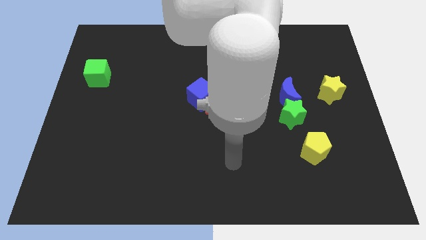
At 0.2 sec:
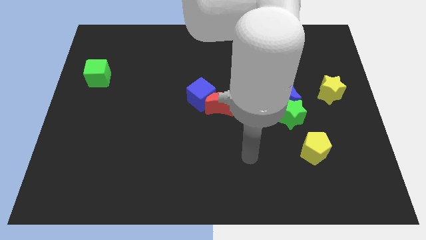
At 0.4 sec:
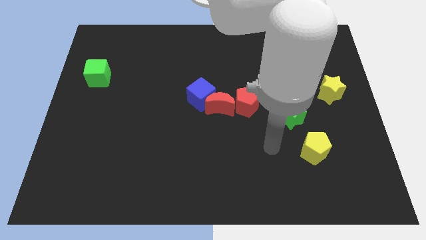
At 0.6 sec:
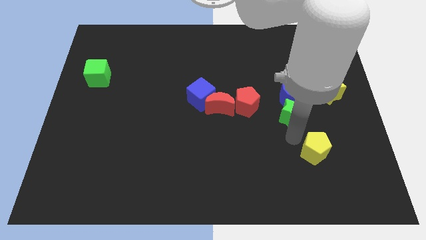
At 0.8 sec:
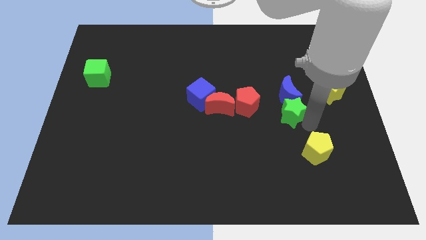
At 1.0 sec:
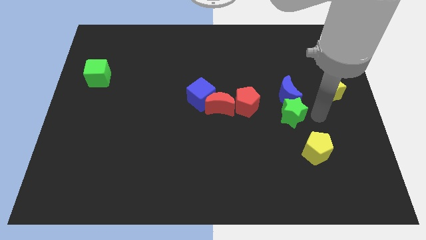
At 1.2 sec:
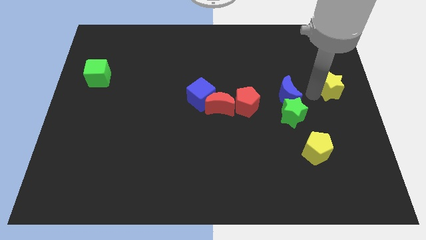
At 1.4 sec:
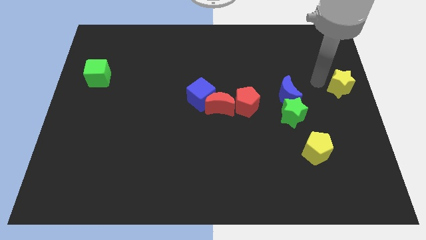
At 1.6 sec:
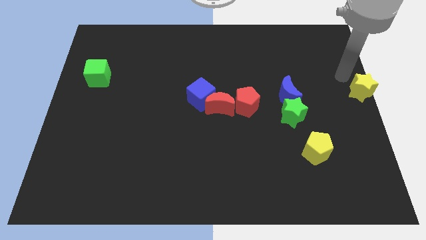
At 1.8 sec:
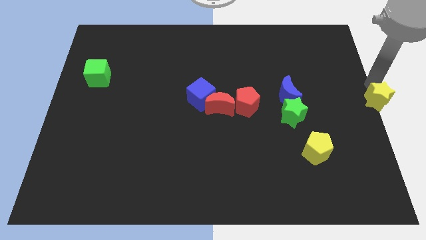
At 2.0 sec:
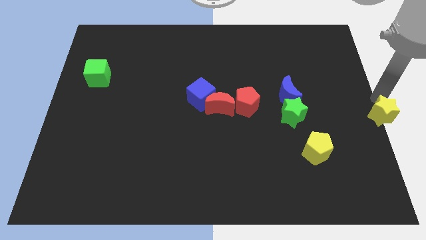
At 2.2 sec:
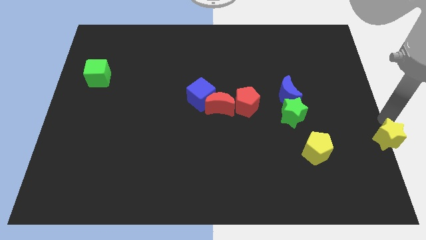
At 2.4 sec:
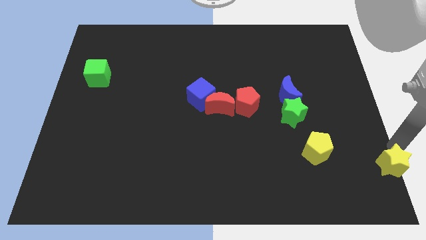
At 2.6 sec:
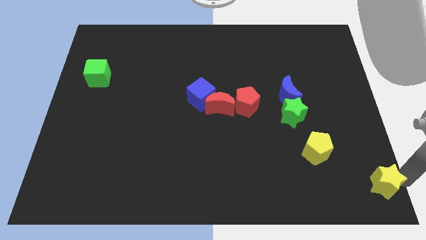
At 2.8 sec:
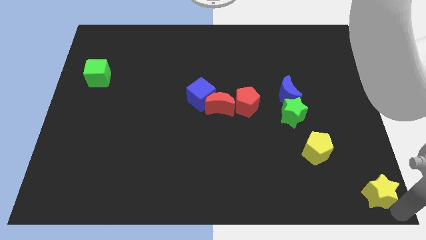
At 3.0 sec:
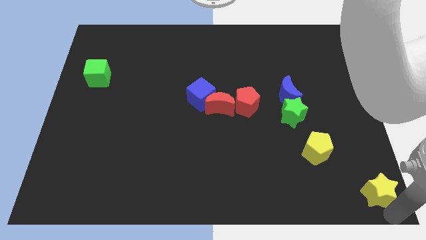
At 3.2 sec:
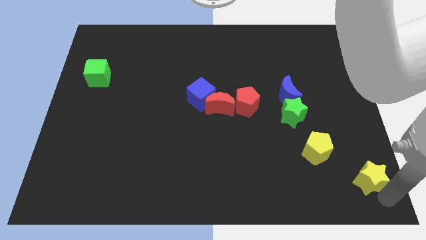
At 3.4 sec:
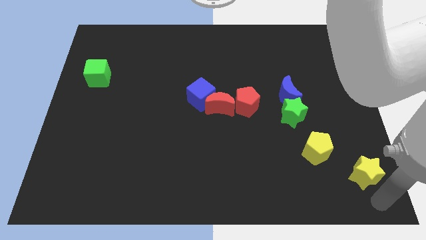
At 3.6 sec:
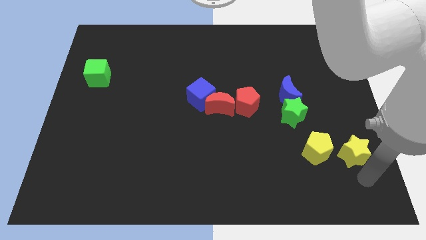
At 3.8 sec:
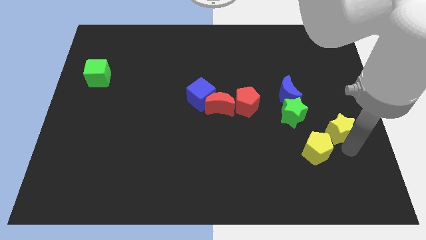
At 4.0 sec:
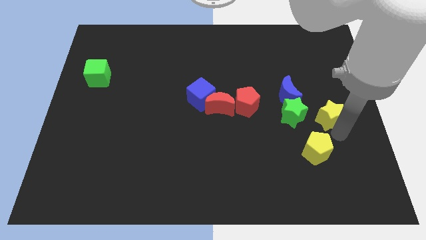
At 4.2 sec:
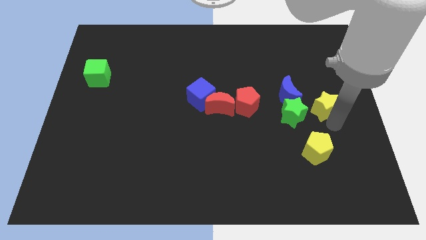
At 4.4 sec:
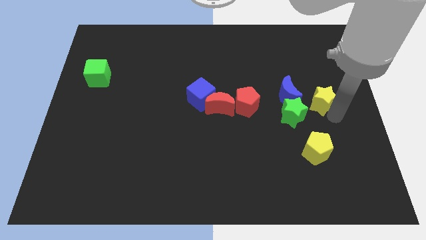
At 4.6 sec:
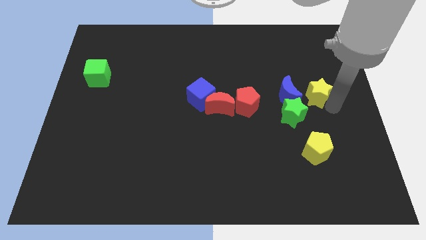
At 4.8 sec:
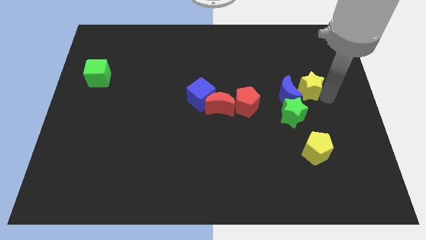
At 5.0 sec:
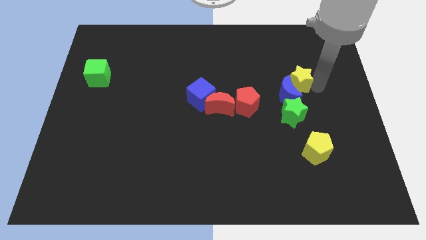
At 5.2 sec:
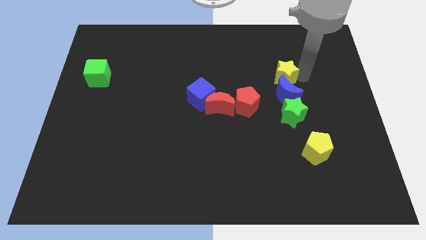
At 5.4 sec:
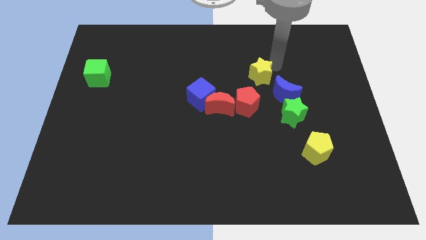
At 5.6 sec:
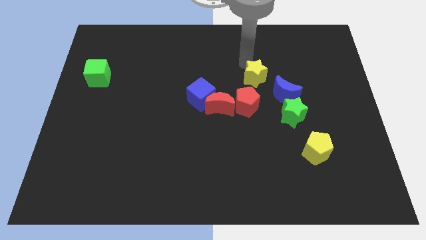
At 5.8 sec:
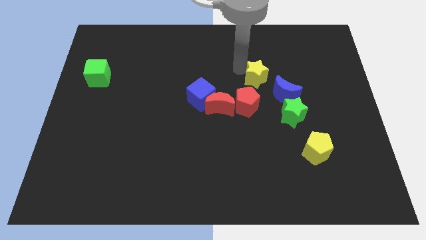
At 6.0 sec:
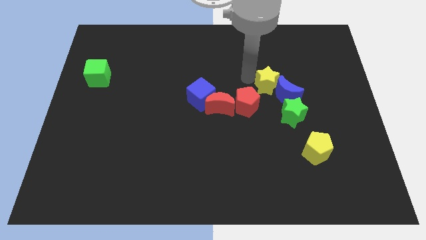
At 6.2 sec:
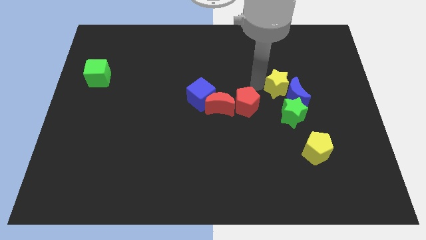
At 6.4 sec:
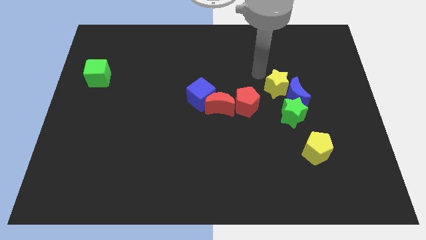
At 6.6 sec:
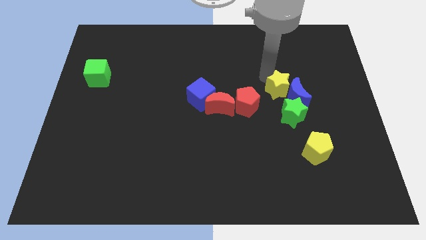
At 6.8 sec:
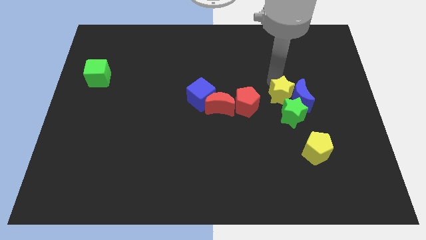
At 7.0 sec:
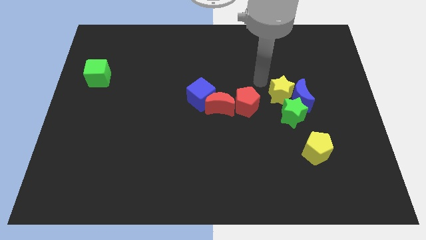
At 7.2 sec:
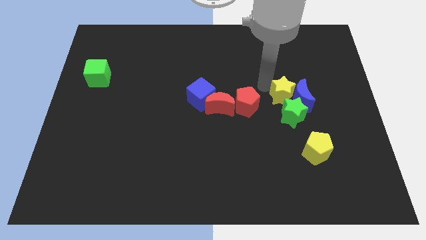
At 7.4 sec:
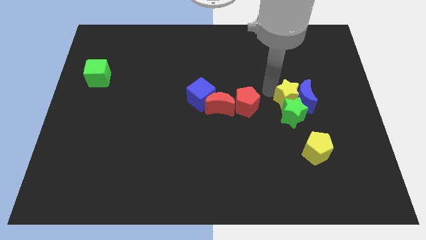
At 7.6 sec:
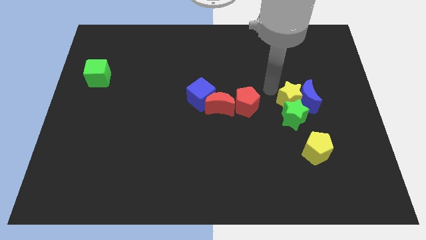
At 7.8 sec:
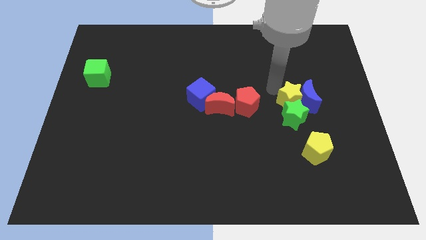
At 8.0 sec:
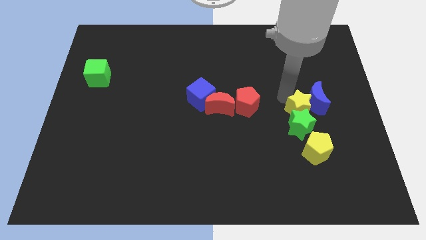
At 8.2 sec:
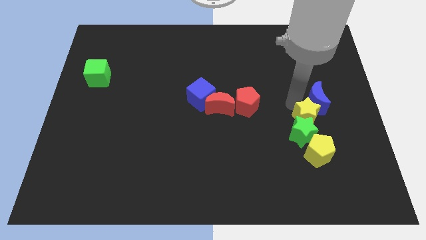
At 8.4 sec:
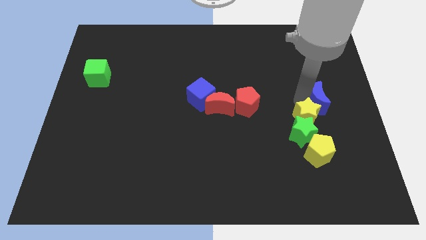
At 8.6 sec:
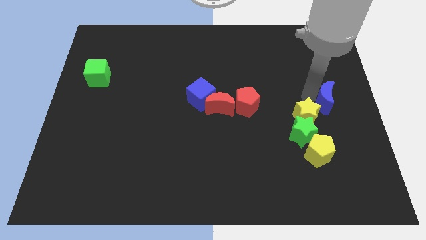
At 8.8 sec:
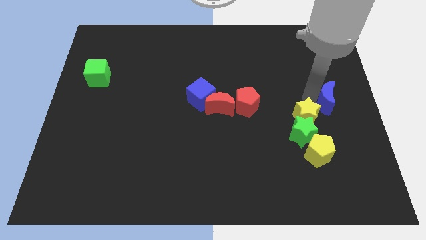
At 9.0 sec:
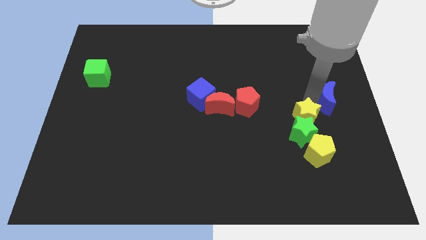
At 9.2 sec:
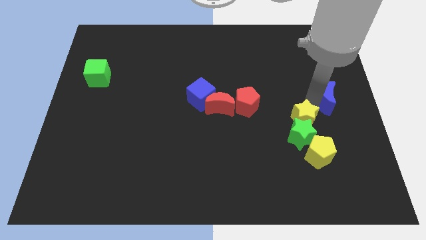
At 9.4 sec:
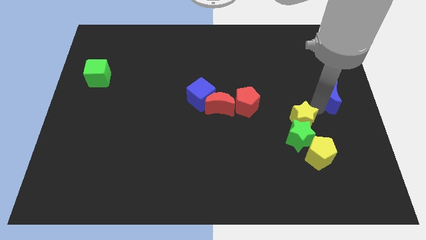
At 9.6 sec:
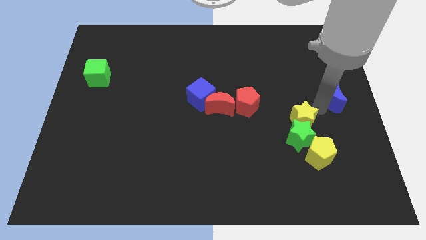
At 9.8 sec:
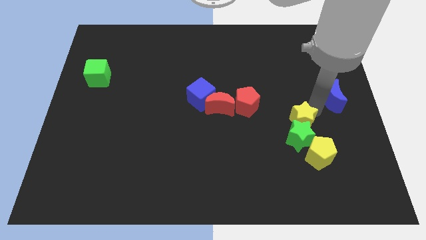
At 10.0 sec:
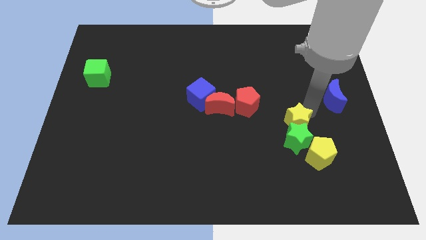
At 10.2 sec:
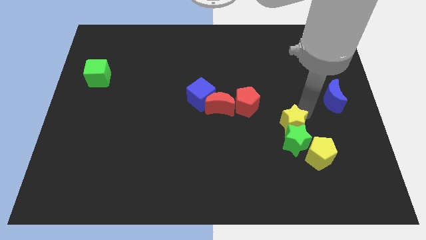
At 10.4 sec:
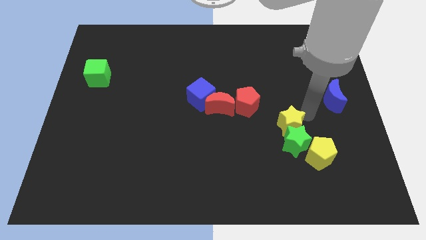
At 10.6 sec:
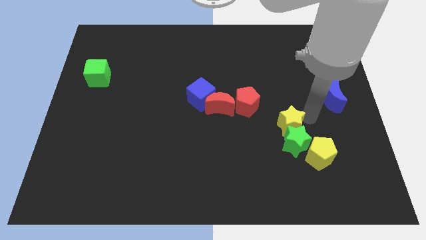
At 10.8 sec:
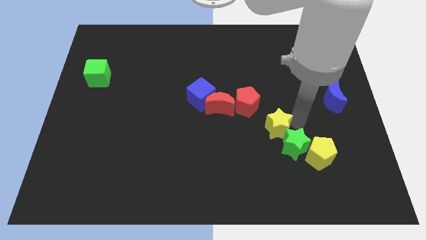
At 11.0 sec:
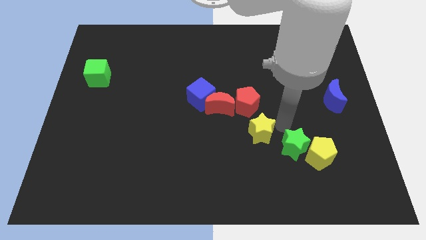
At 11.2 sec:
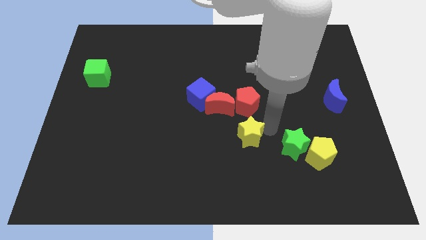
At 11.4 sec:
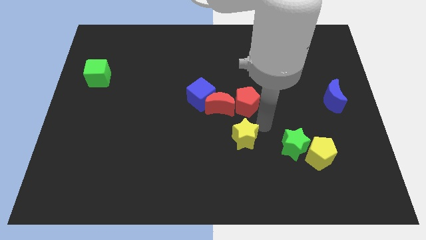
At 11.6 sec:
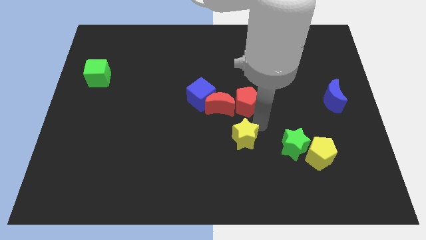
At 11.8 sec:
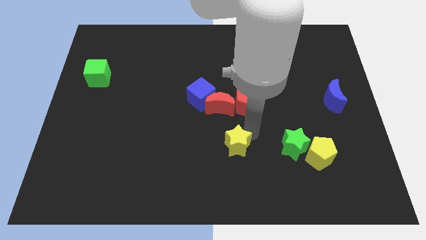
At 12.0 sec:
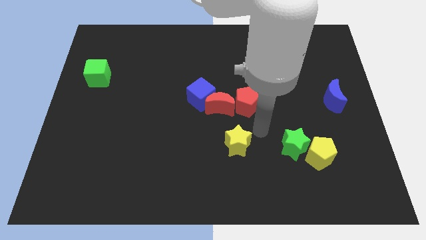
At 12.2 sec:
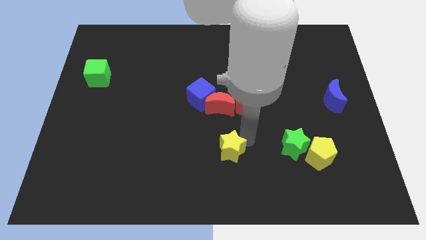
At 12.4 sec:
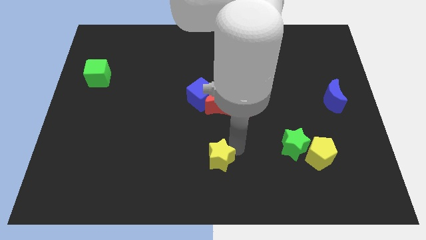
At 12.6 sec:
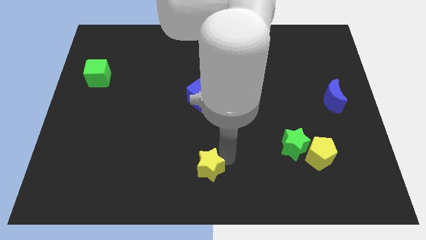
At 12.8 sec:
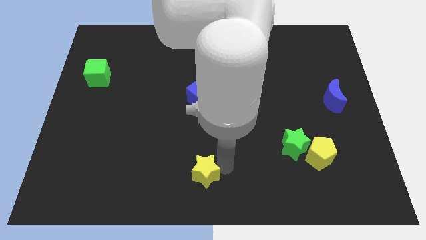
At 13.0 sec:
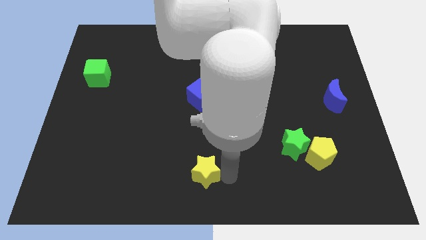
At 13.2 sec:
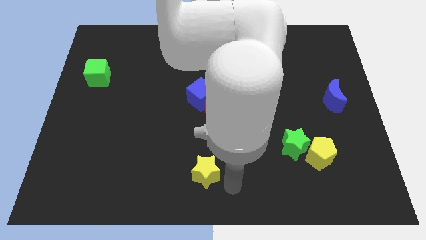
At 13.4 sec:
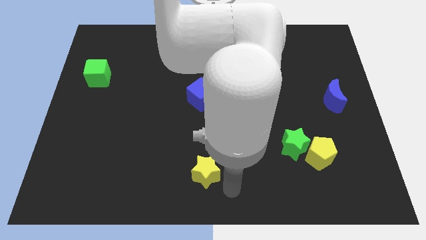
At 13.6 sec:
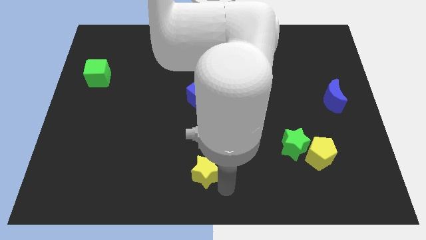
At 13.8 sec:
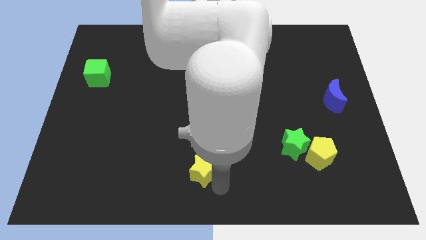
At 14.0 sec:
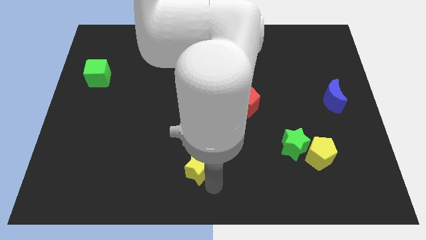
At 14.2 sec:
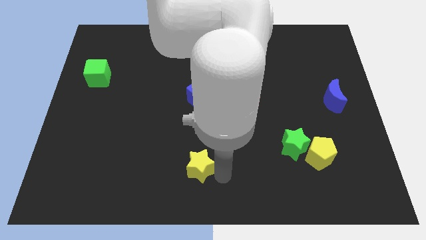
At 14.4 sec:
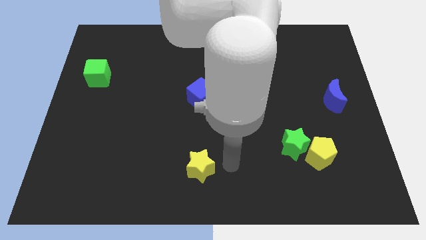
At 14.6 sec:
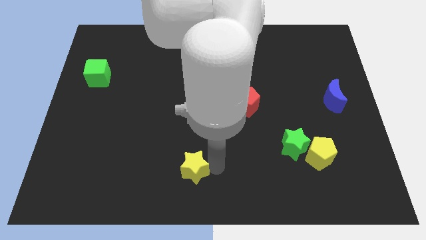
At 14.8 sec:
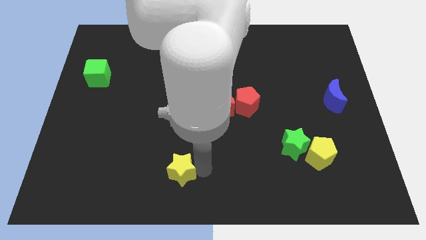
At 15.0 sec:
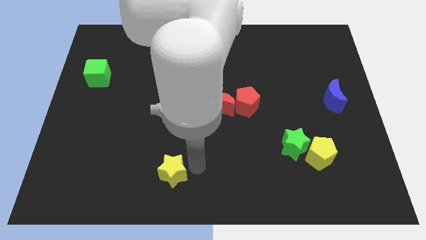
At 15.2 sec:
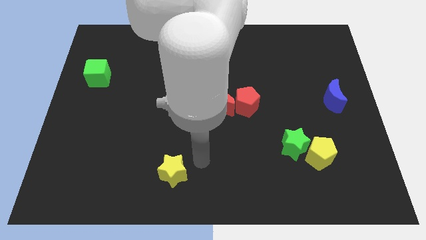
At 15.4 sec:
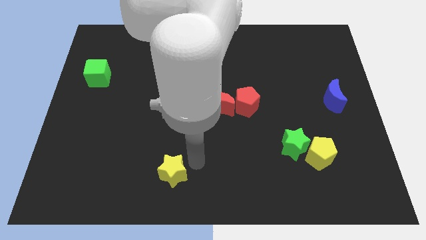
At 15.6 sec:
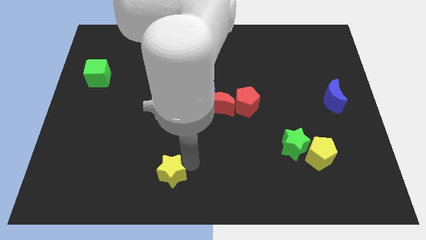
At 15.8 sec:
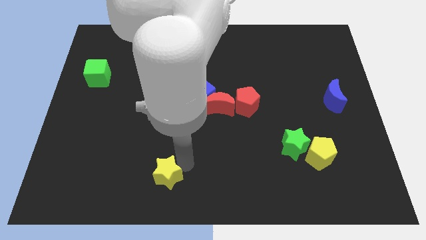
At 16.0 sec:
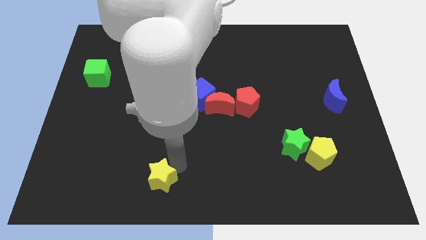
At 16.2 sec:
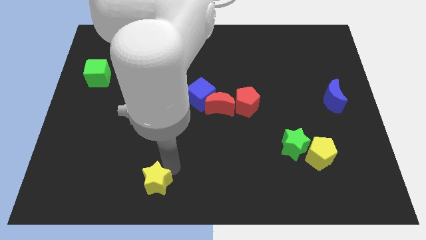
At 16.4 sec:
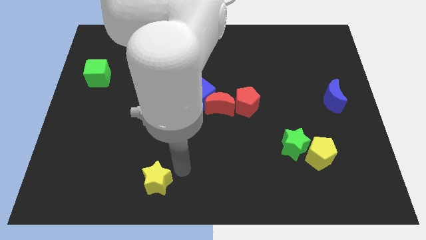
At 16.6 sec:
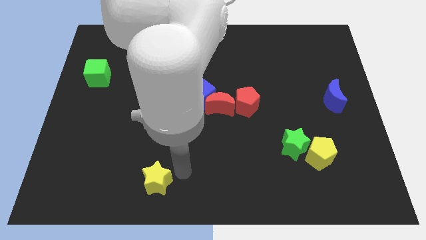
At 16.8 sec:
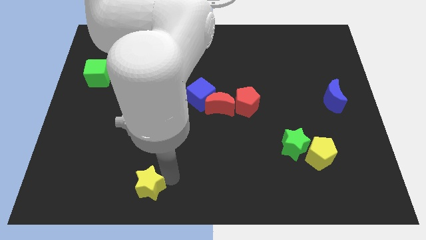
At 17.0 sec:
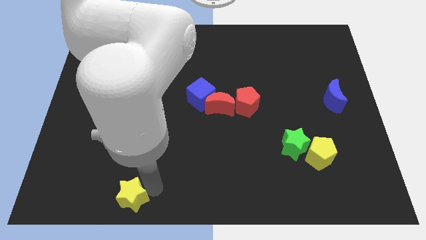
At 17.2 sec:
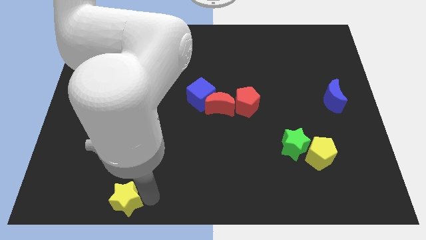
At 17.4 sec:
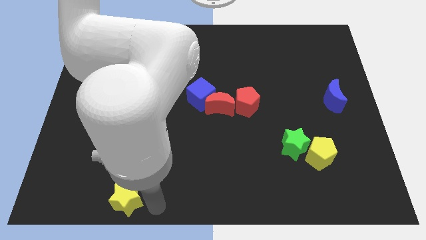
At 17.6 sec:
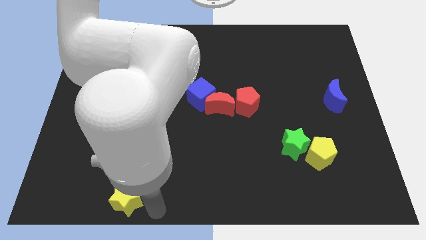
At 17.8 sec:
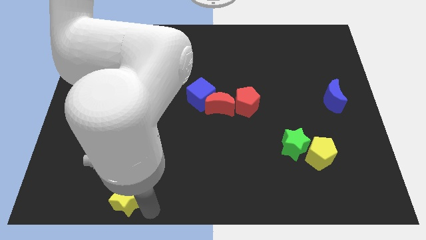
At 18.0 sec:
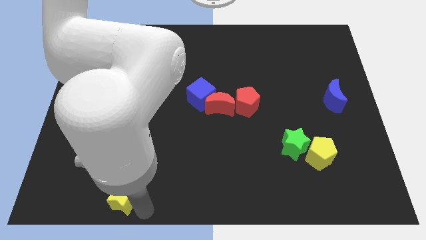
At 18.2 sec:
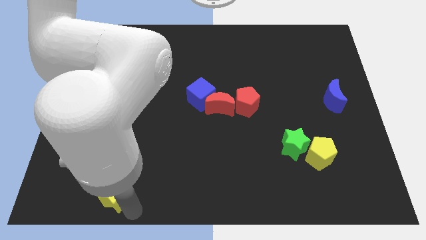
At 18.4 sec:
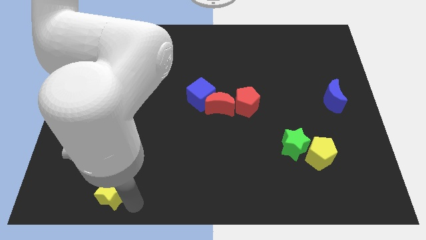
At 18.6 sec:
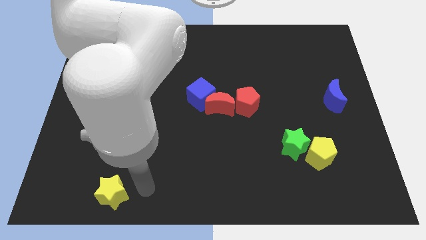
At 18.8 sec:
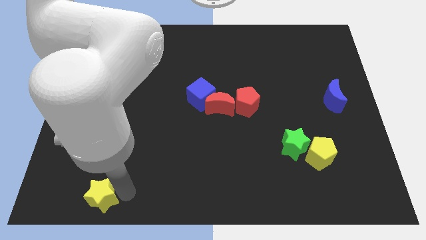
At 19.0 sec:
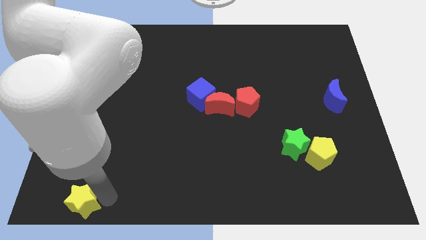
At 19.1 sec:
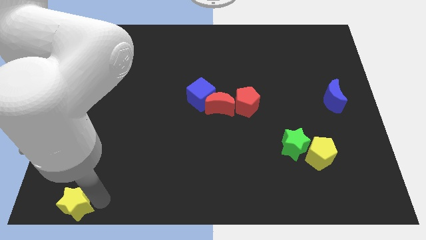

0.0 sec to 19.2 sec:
move the yellow star to the bottom left of the board
